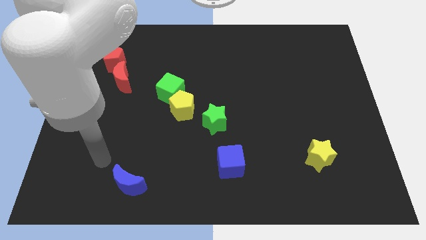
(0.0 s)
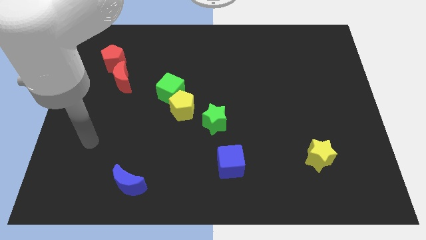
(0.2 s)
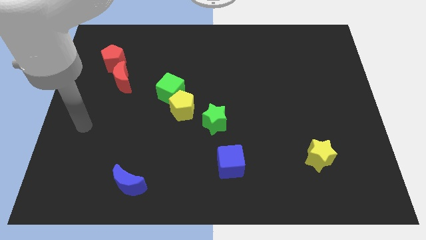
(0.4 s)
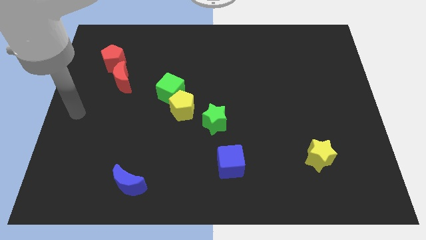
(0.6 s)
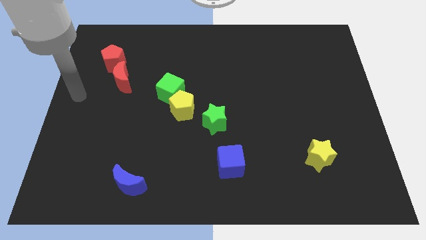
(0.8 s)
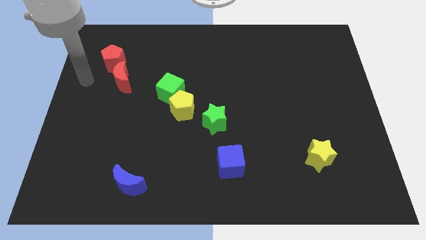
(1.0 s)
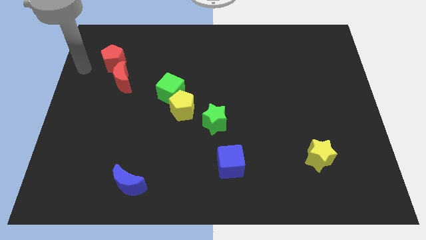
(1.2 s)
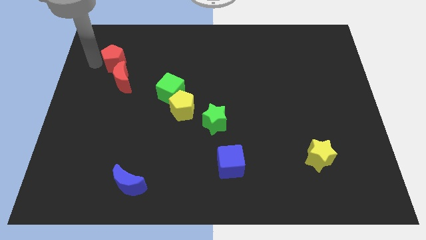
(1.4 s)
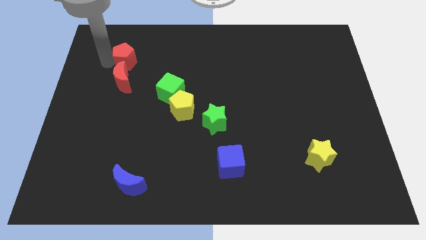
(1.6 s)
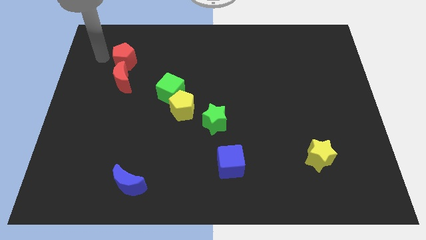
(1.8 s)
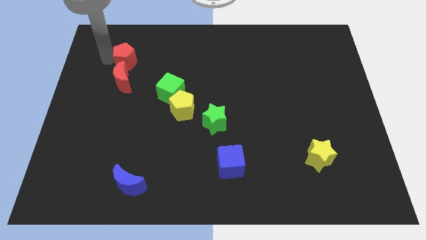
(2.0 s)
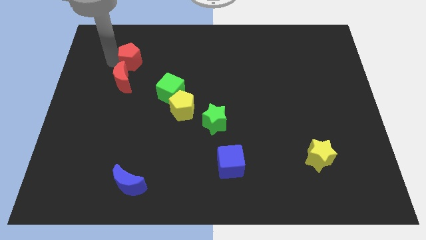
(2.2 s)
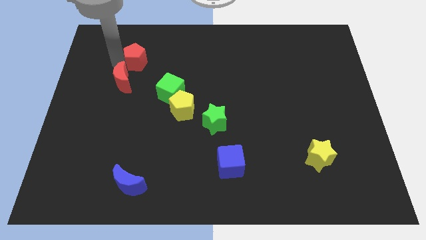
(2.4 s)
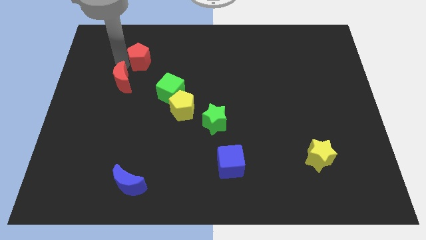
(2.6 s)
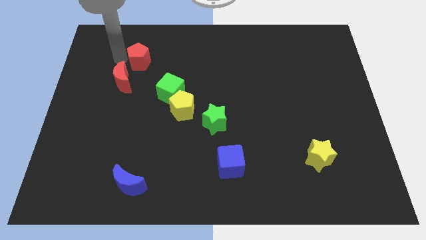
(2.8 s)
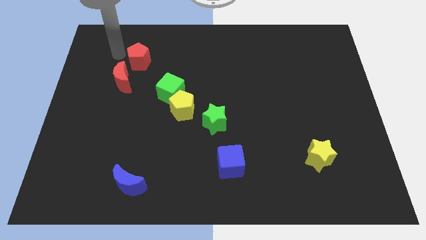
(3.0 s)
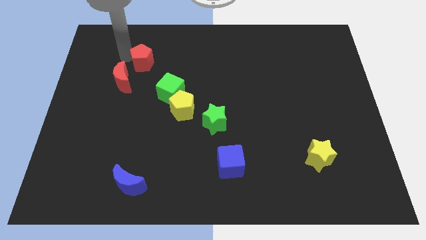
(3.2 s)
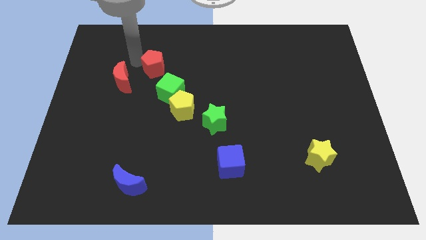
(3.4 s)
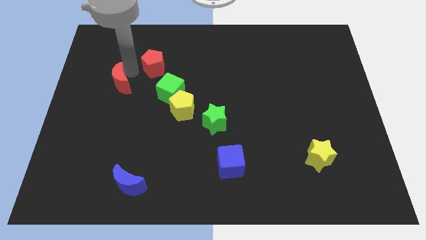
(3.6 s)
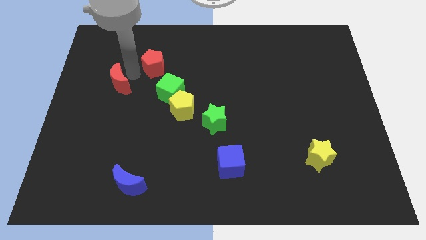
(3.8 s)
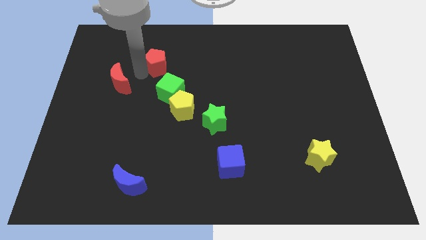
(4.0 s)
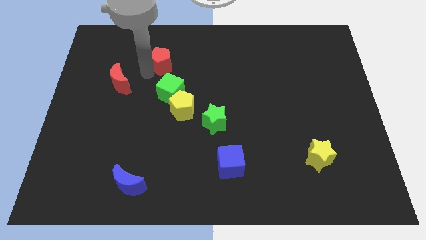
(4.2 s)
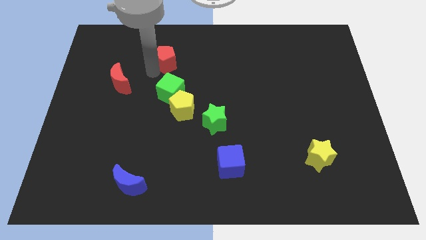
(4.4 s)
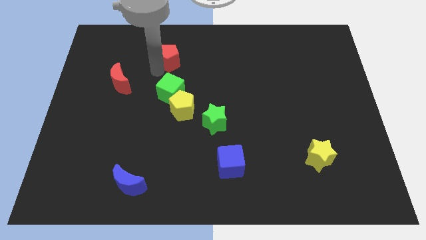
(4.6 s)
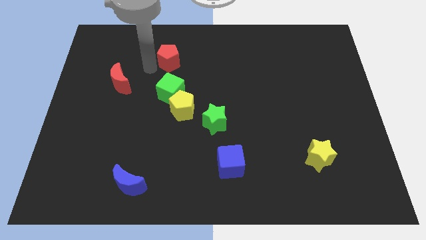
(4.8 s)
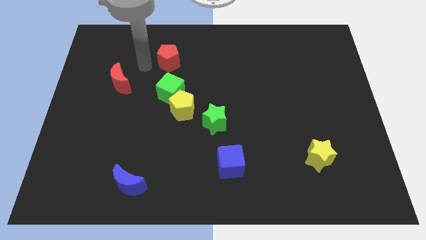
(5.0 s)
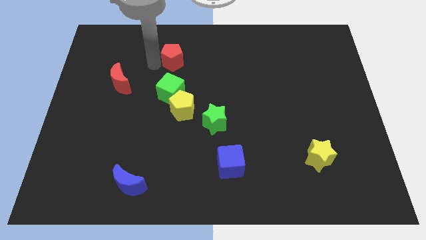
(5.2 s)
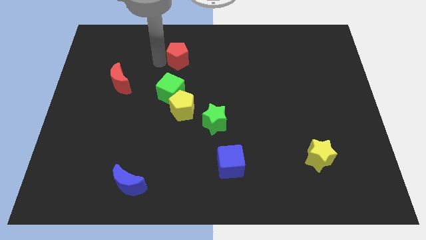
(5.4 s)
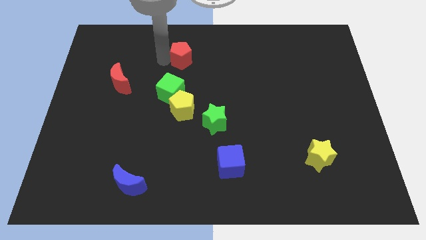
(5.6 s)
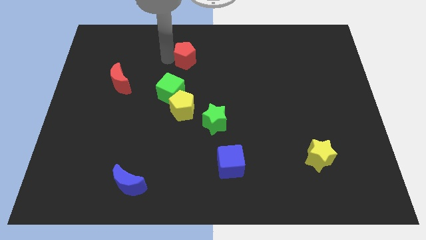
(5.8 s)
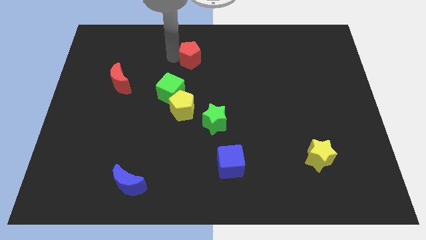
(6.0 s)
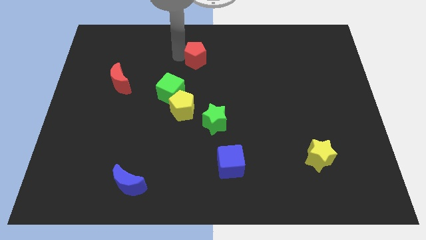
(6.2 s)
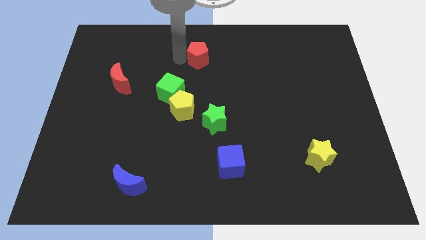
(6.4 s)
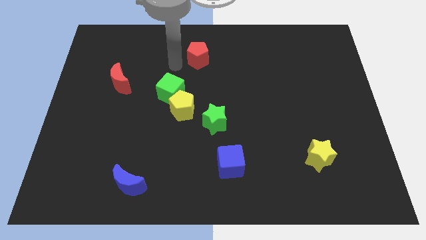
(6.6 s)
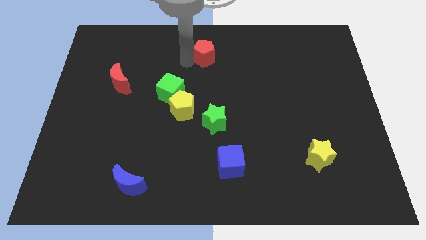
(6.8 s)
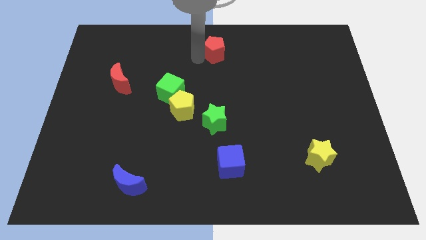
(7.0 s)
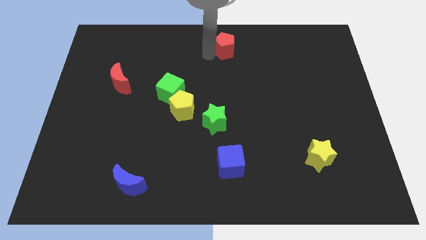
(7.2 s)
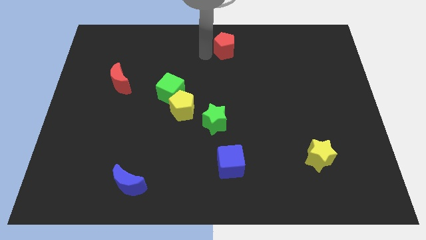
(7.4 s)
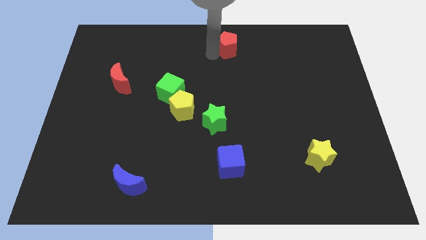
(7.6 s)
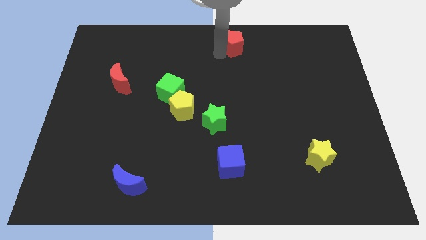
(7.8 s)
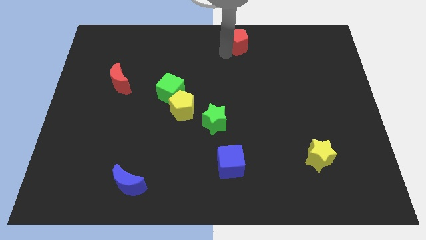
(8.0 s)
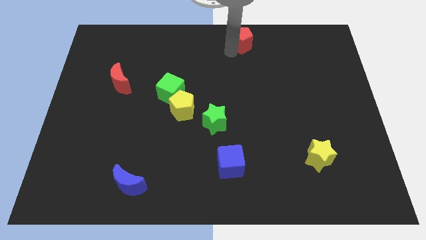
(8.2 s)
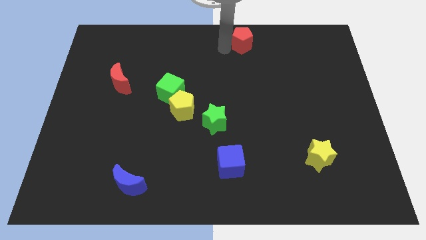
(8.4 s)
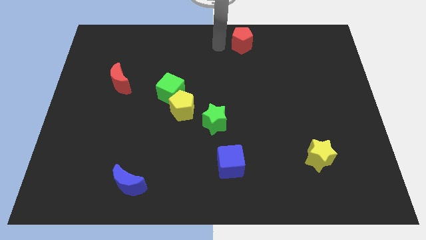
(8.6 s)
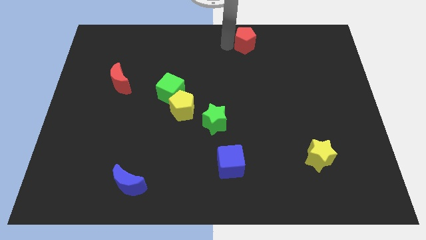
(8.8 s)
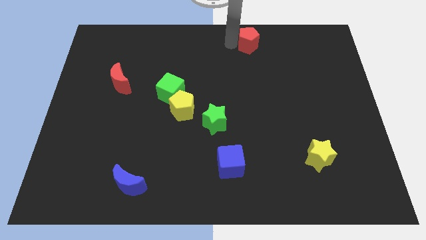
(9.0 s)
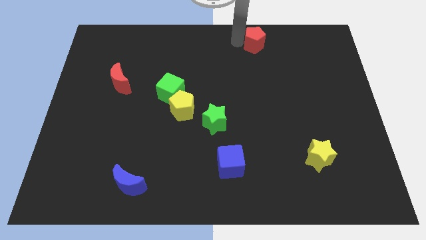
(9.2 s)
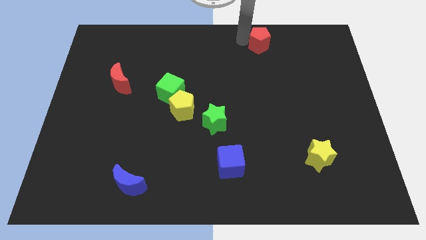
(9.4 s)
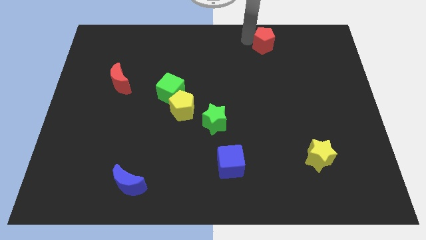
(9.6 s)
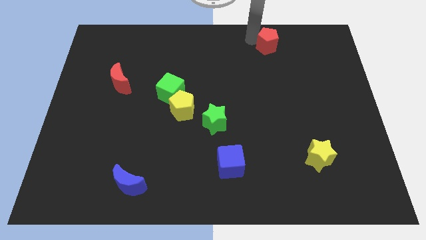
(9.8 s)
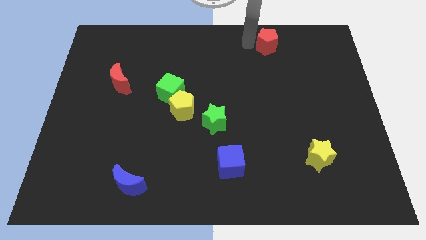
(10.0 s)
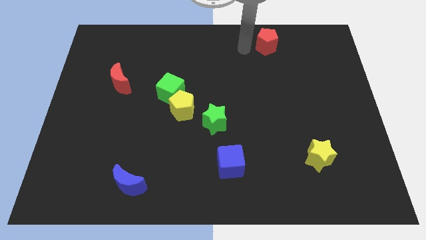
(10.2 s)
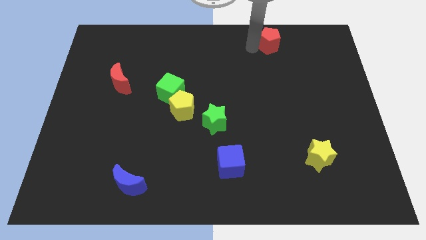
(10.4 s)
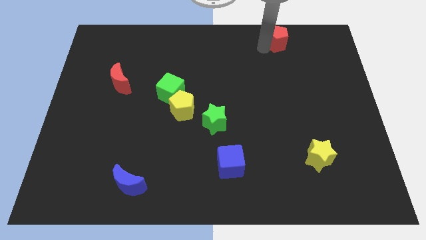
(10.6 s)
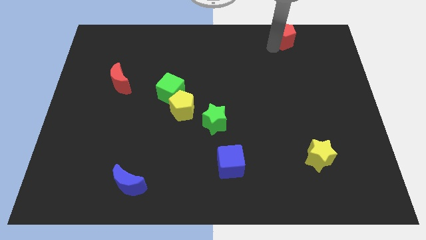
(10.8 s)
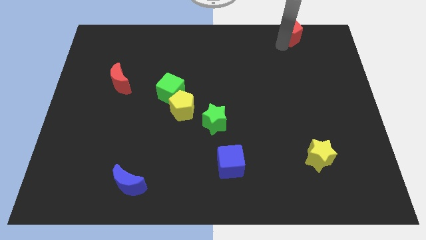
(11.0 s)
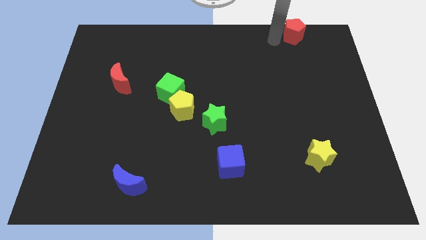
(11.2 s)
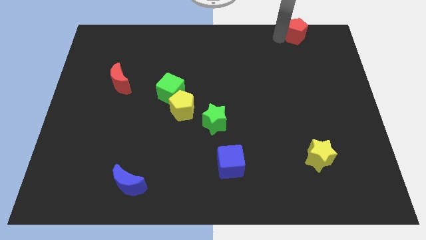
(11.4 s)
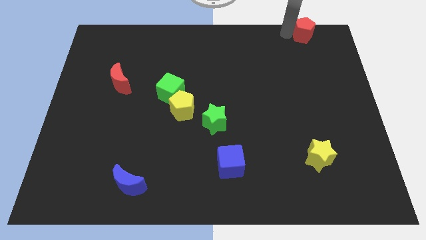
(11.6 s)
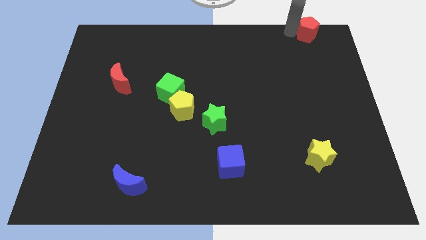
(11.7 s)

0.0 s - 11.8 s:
slide the red pentagon to the top right corner

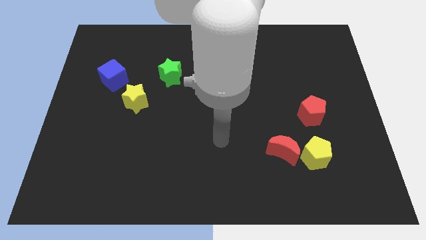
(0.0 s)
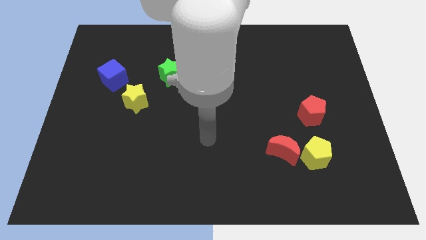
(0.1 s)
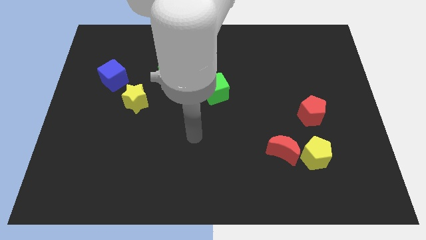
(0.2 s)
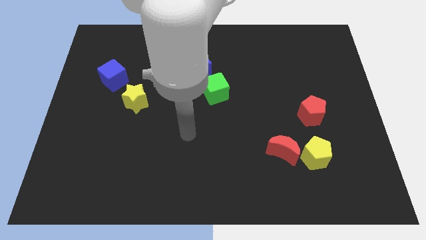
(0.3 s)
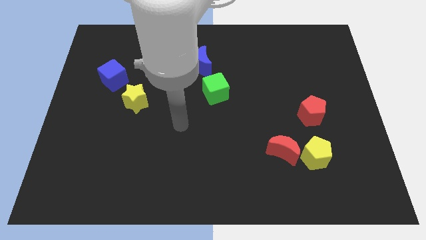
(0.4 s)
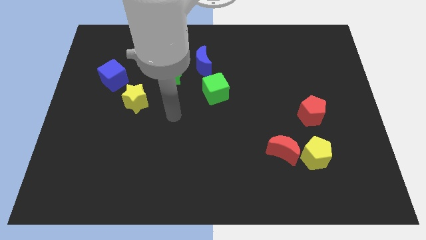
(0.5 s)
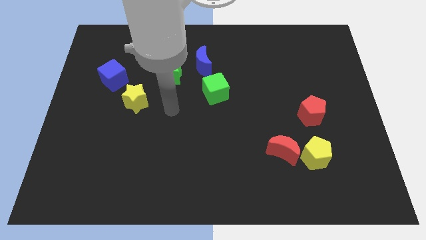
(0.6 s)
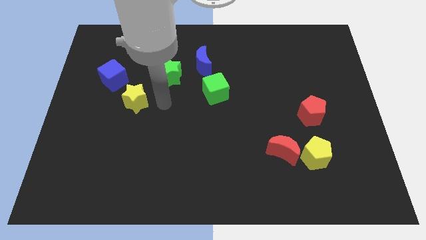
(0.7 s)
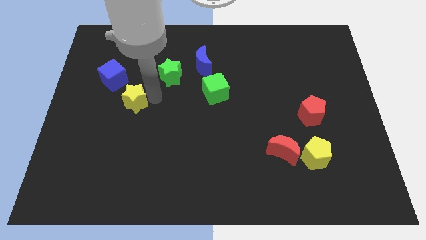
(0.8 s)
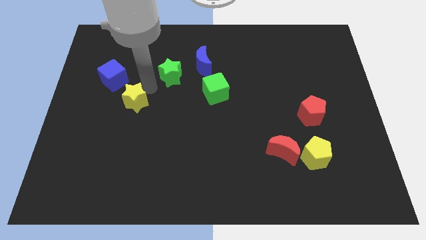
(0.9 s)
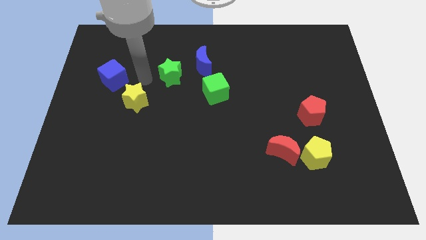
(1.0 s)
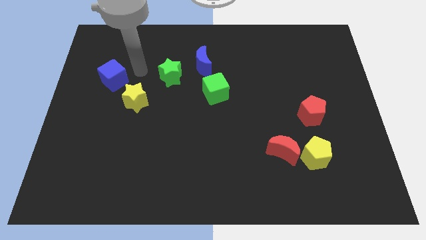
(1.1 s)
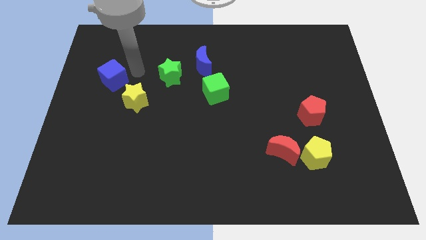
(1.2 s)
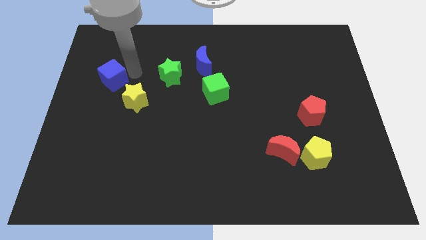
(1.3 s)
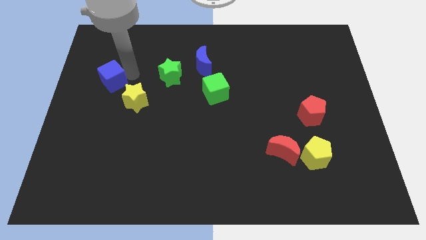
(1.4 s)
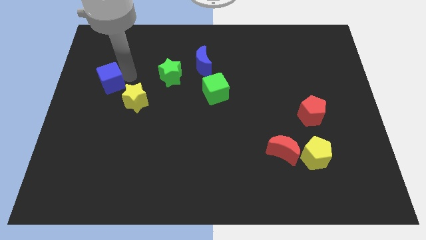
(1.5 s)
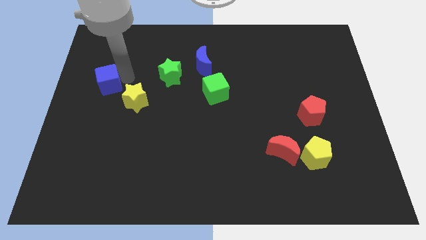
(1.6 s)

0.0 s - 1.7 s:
move the blue cube to the left side of the board
